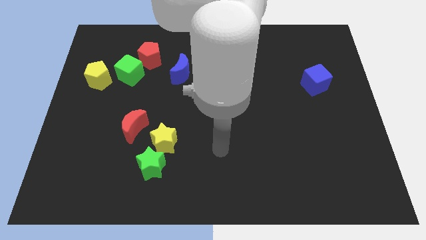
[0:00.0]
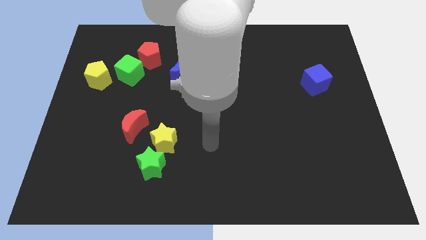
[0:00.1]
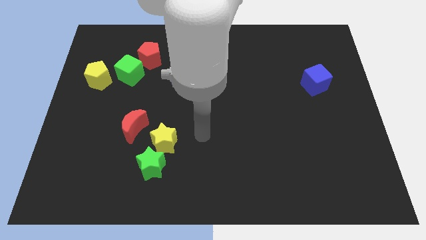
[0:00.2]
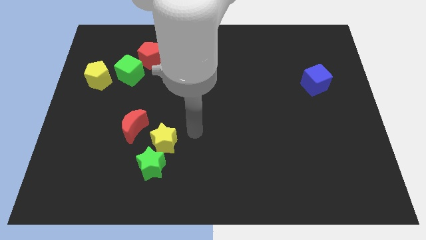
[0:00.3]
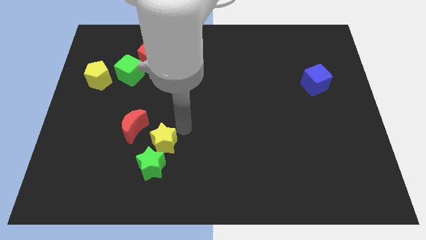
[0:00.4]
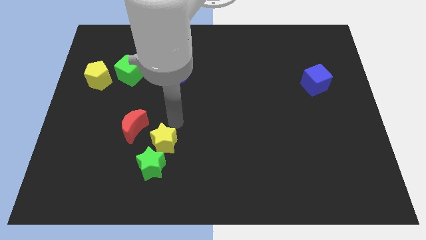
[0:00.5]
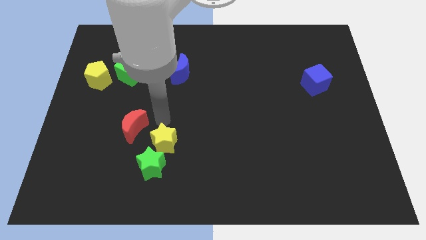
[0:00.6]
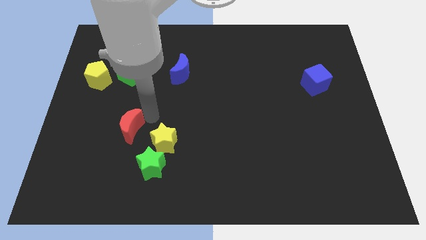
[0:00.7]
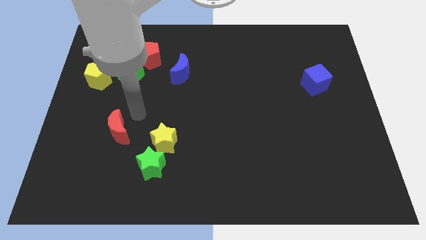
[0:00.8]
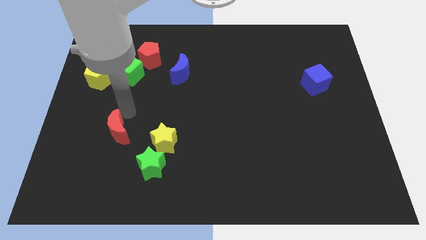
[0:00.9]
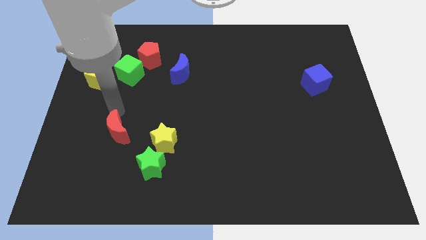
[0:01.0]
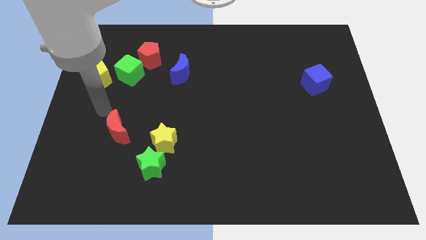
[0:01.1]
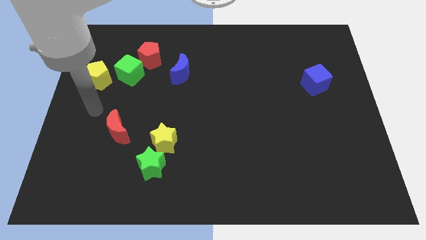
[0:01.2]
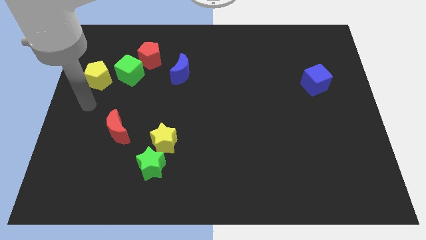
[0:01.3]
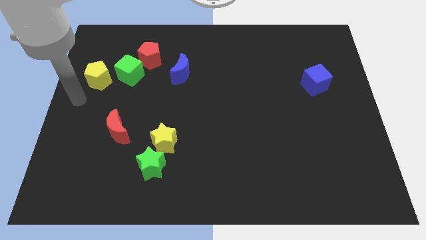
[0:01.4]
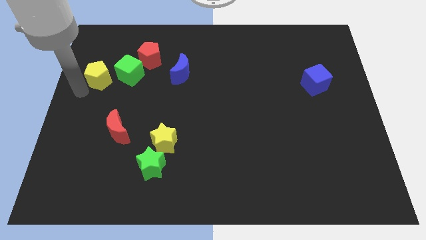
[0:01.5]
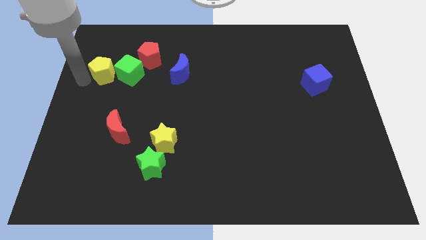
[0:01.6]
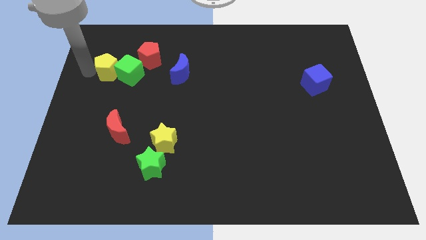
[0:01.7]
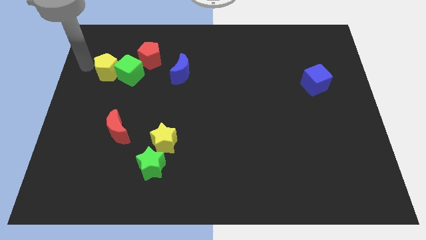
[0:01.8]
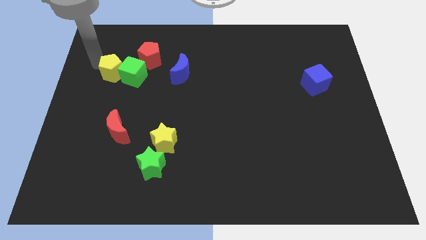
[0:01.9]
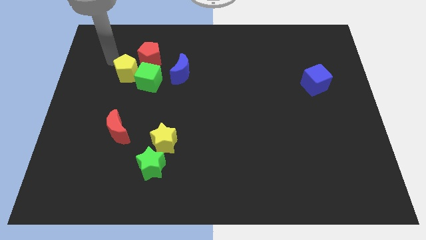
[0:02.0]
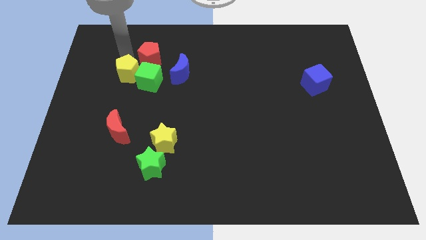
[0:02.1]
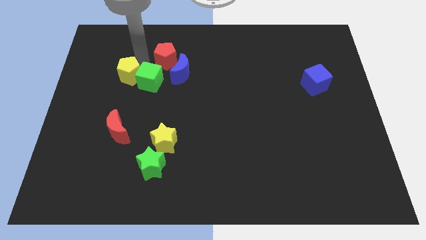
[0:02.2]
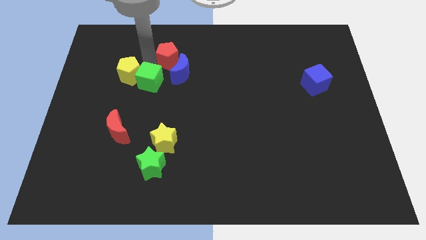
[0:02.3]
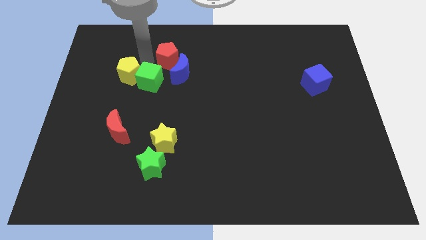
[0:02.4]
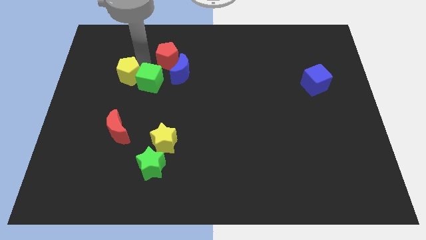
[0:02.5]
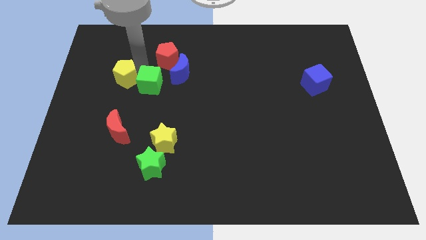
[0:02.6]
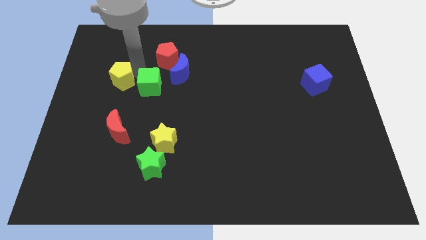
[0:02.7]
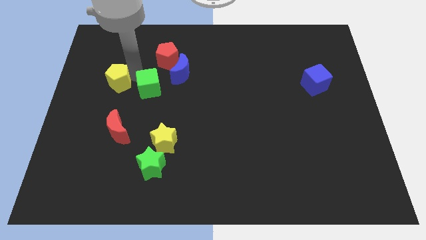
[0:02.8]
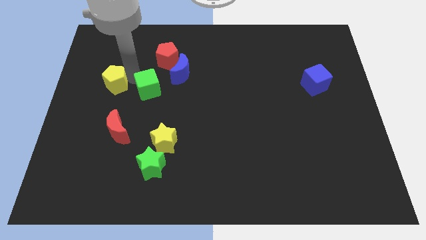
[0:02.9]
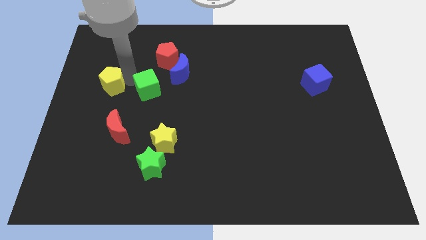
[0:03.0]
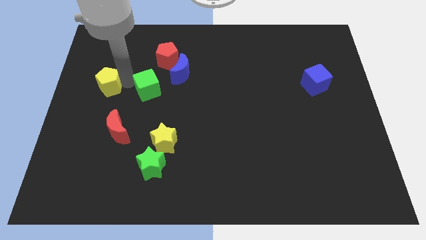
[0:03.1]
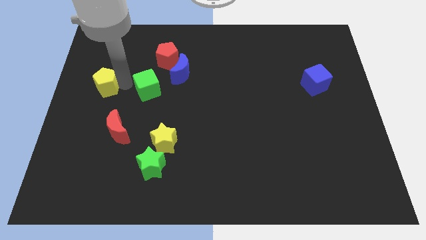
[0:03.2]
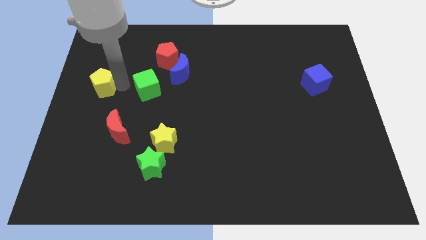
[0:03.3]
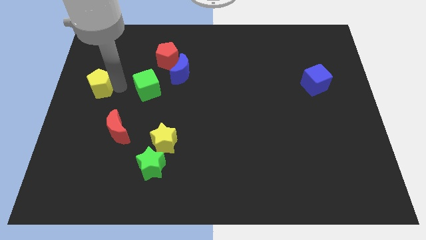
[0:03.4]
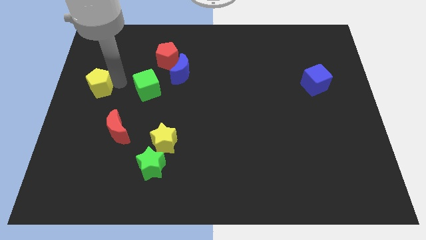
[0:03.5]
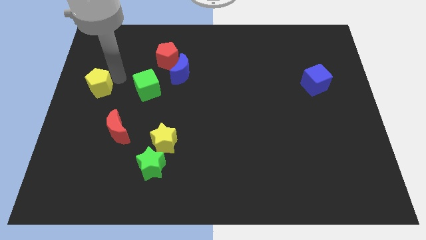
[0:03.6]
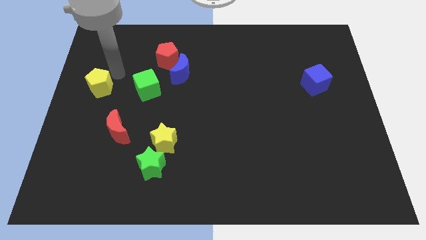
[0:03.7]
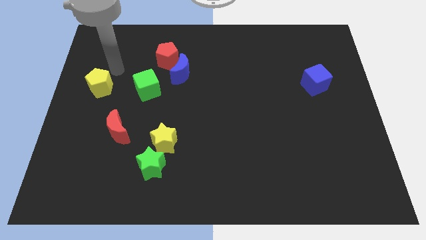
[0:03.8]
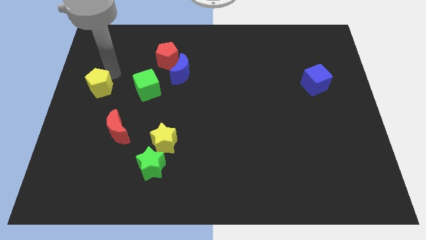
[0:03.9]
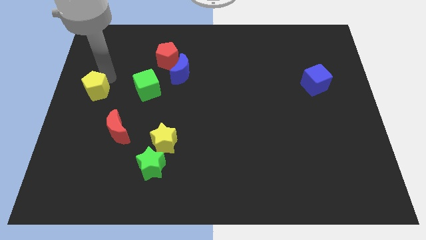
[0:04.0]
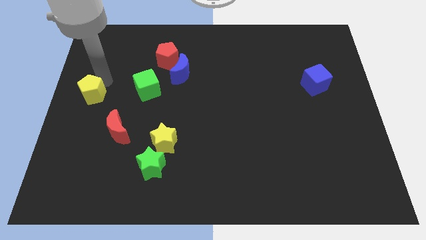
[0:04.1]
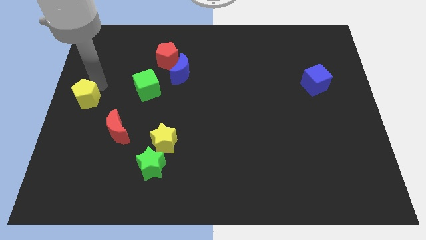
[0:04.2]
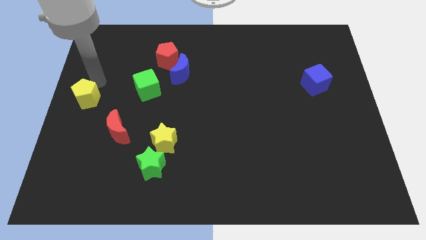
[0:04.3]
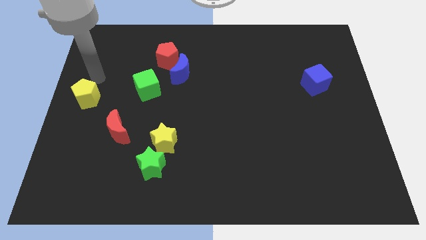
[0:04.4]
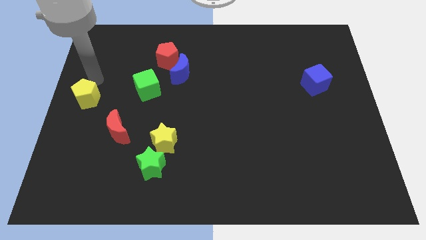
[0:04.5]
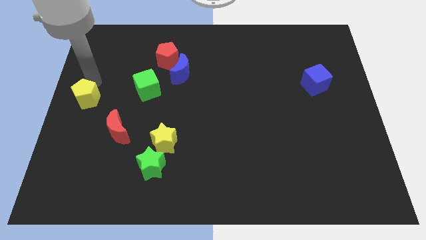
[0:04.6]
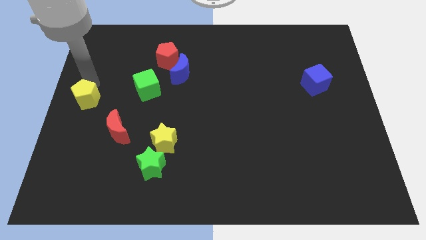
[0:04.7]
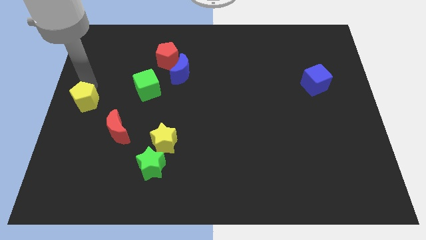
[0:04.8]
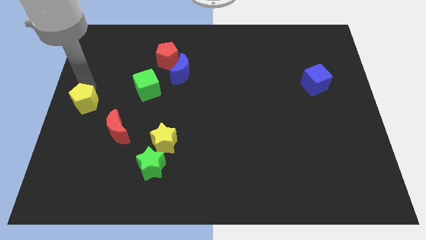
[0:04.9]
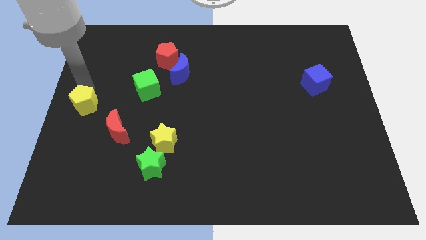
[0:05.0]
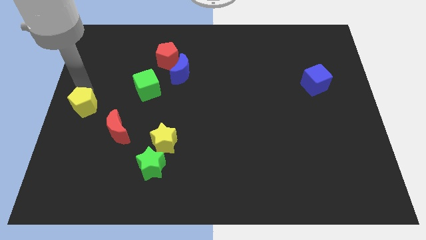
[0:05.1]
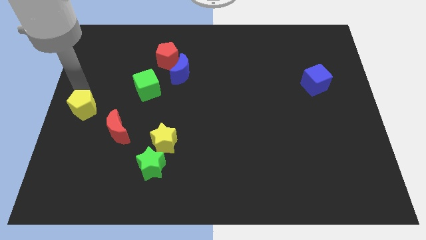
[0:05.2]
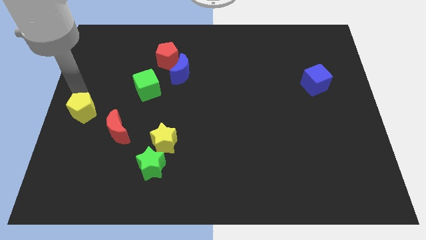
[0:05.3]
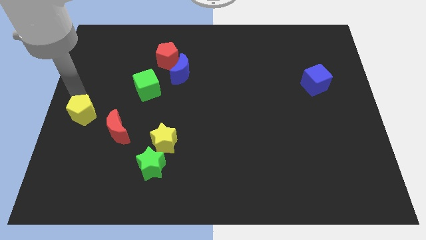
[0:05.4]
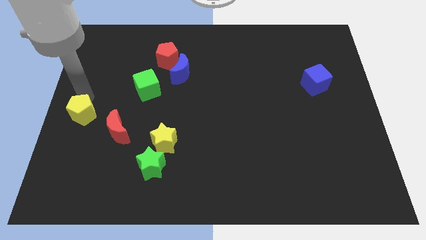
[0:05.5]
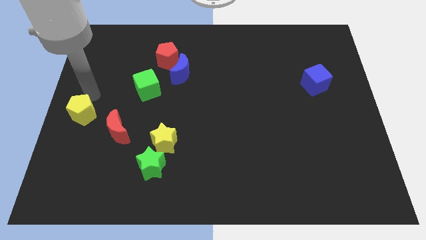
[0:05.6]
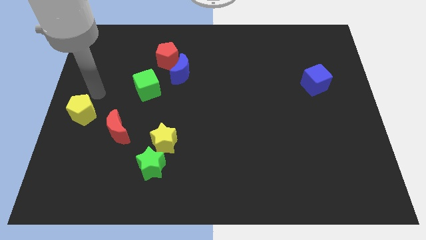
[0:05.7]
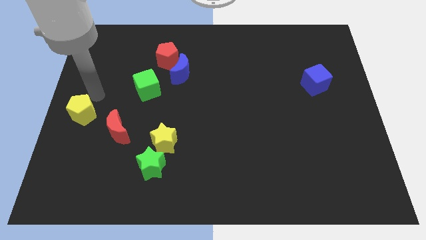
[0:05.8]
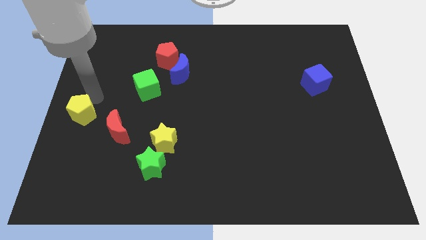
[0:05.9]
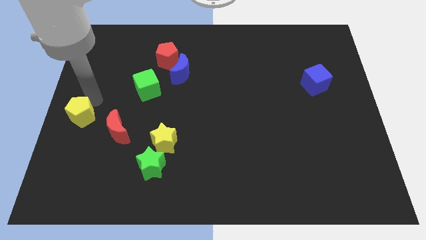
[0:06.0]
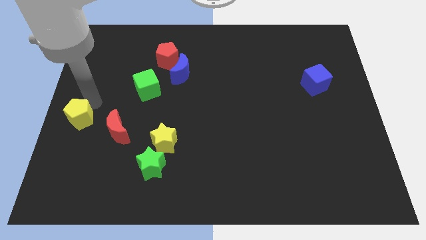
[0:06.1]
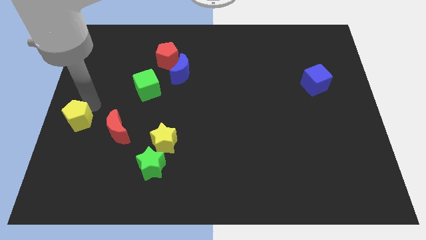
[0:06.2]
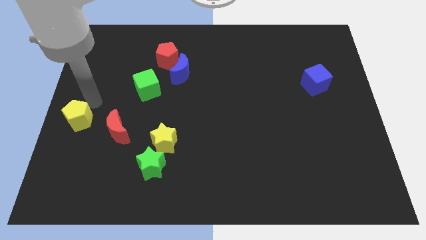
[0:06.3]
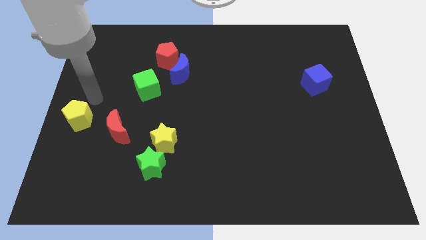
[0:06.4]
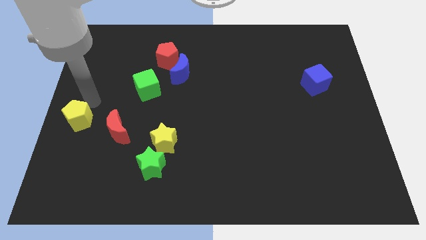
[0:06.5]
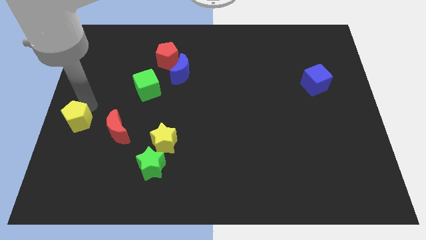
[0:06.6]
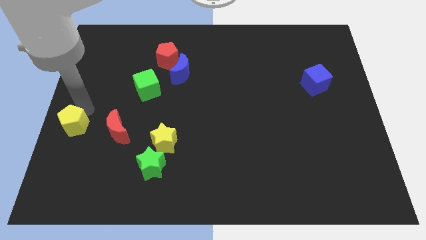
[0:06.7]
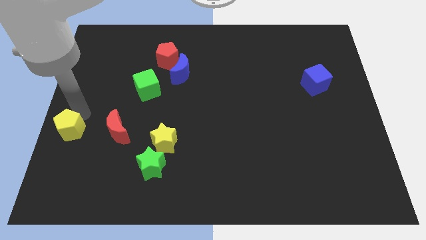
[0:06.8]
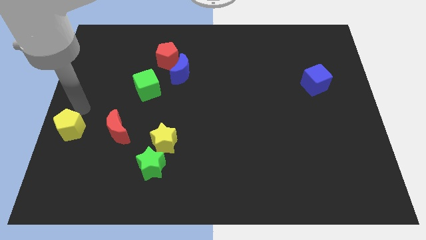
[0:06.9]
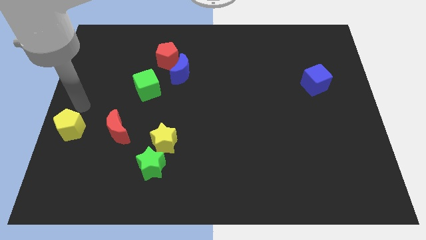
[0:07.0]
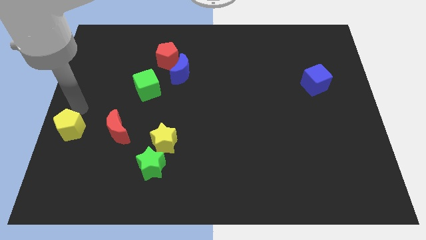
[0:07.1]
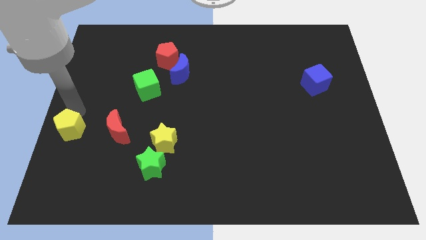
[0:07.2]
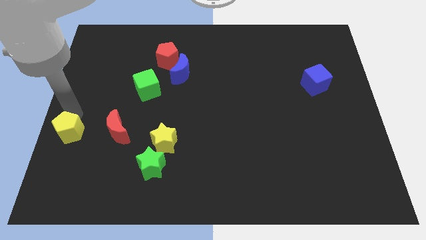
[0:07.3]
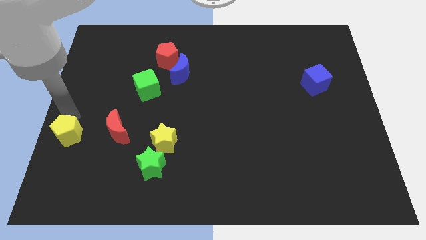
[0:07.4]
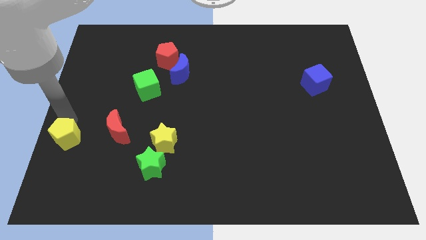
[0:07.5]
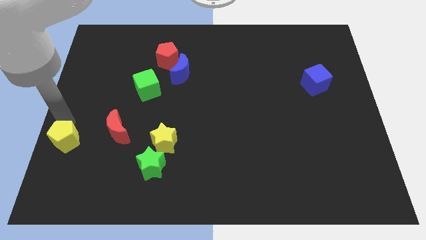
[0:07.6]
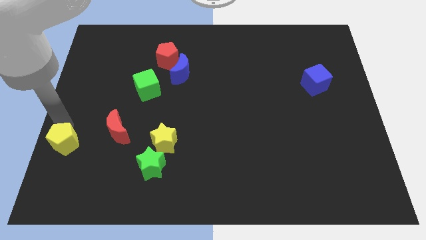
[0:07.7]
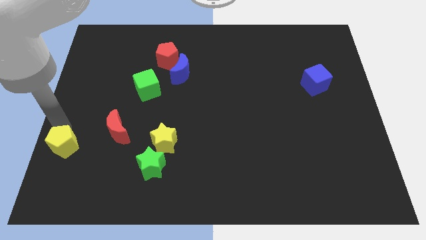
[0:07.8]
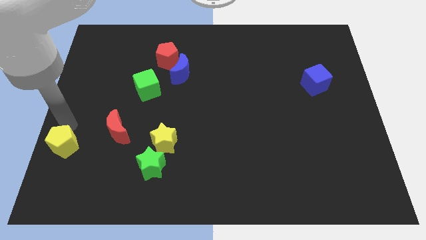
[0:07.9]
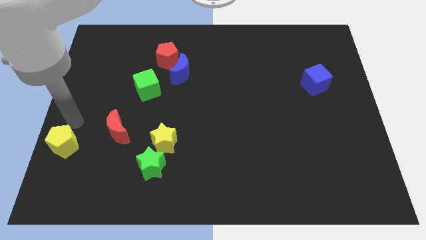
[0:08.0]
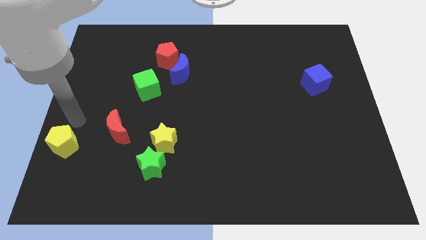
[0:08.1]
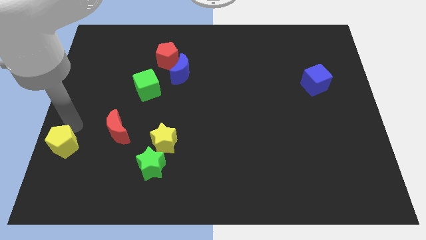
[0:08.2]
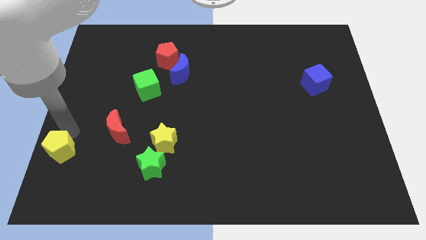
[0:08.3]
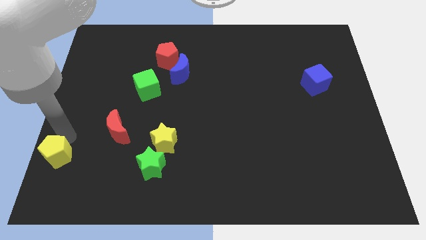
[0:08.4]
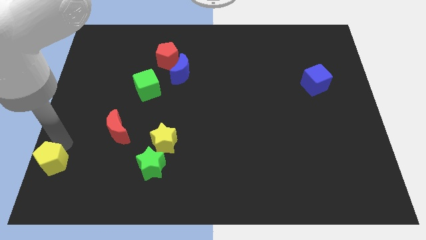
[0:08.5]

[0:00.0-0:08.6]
move the yellow pentagon to the lower left corner
